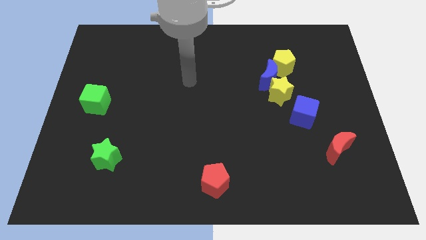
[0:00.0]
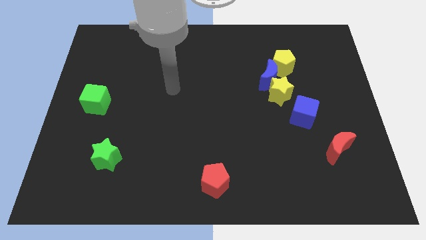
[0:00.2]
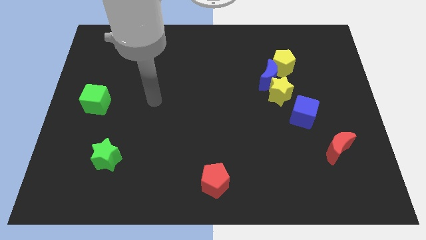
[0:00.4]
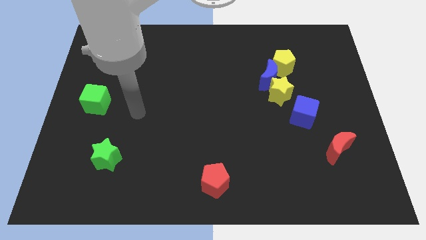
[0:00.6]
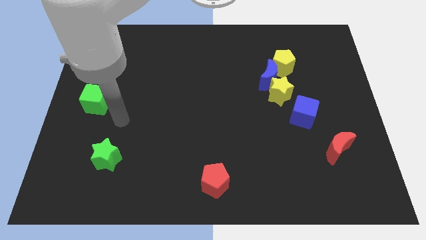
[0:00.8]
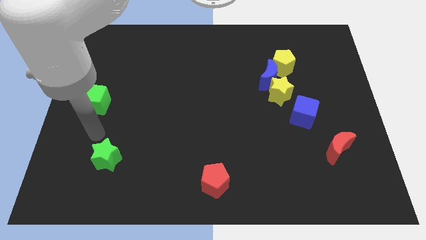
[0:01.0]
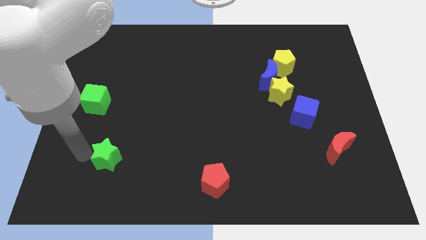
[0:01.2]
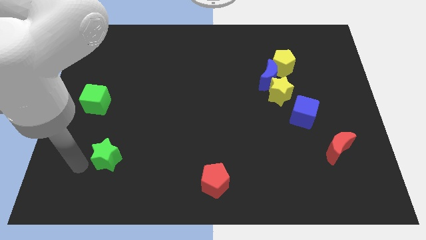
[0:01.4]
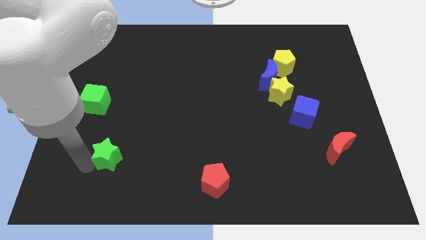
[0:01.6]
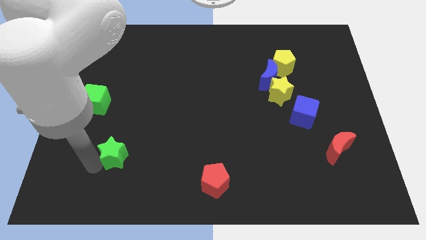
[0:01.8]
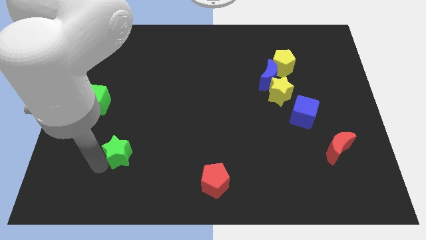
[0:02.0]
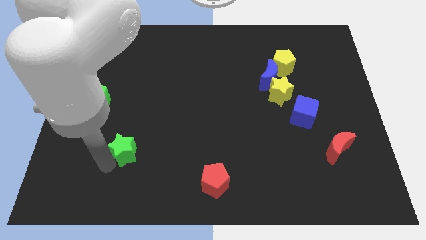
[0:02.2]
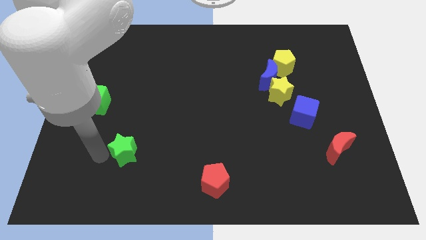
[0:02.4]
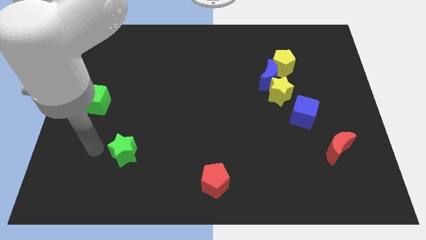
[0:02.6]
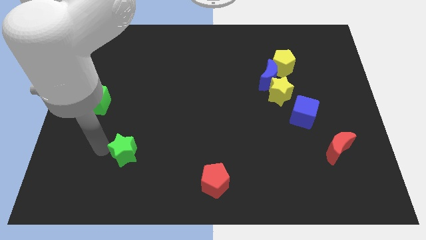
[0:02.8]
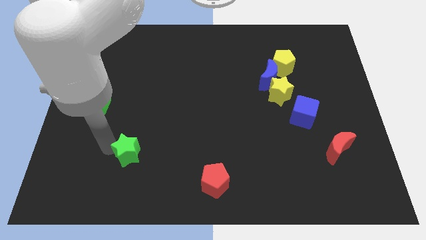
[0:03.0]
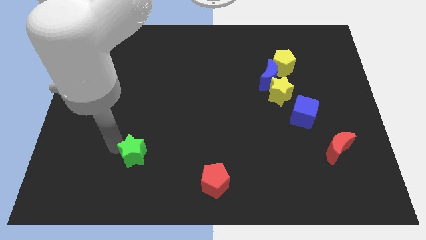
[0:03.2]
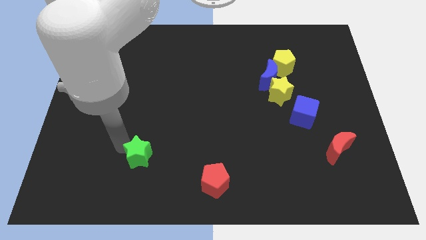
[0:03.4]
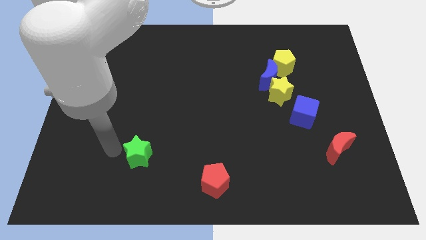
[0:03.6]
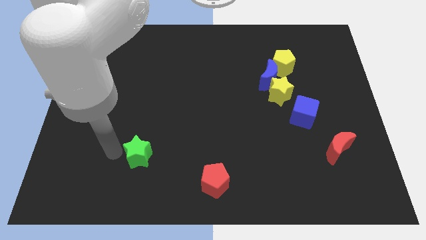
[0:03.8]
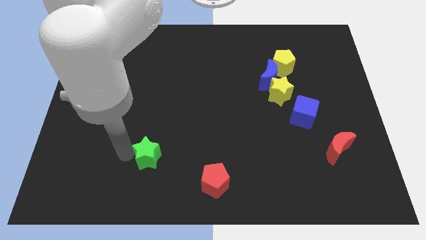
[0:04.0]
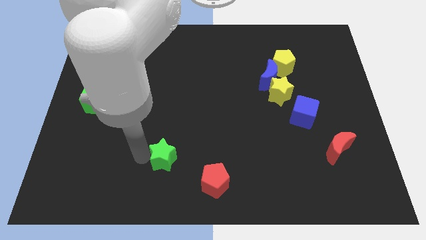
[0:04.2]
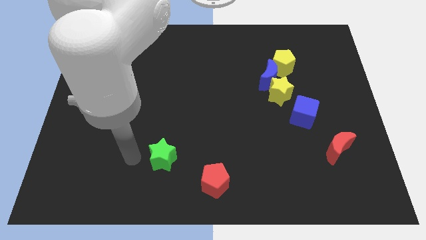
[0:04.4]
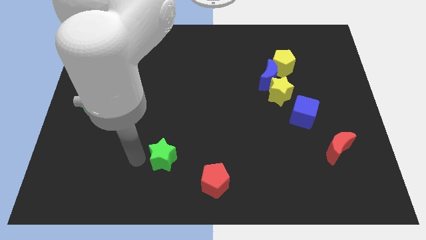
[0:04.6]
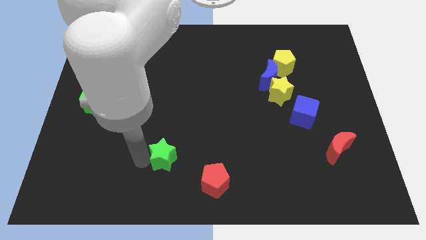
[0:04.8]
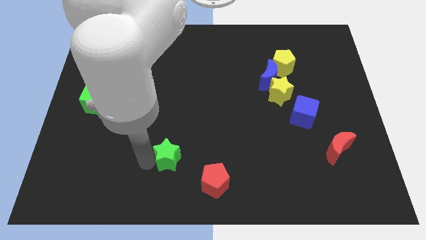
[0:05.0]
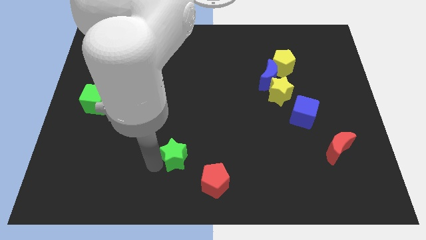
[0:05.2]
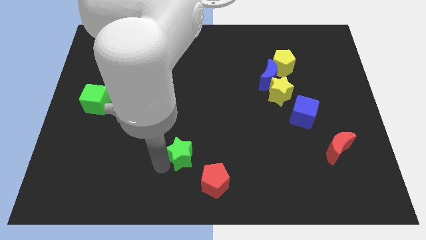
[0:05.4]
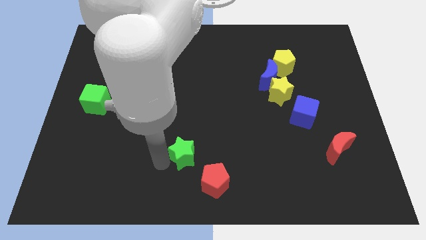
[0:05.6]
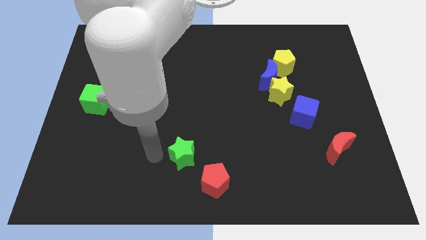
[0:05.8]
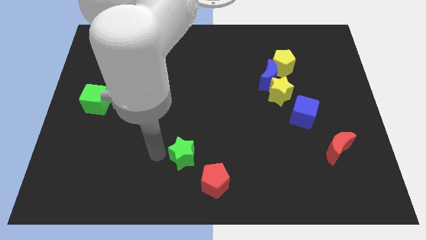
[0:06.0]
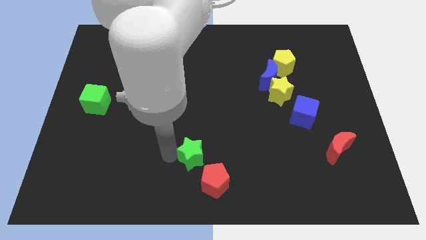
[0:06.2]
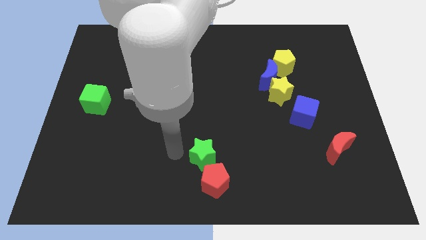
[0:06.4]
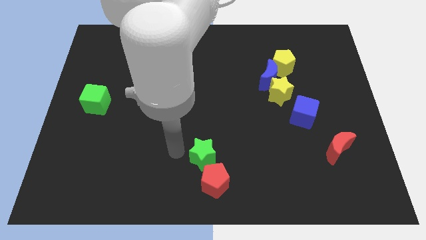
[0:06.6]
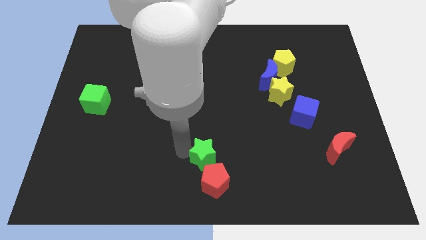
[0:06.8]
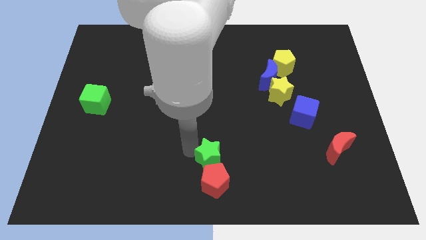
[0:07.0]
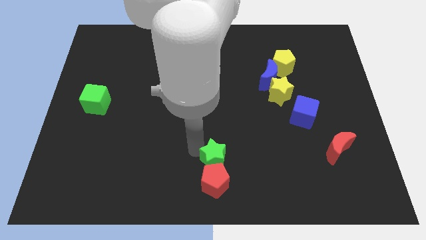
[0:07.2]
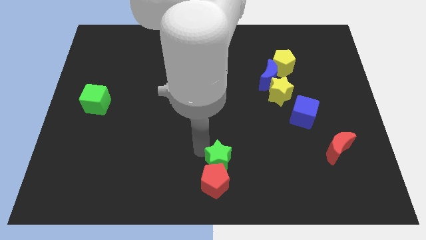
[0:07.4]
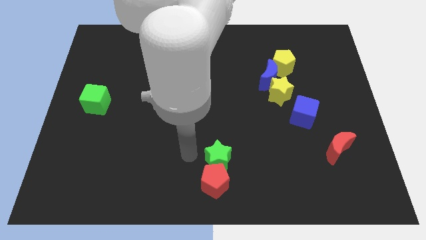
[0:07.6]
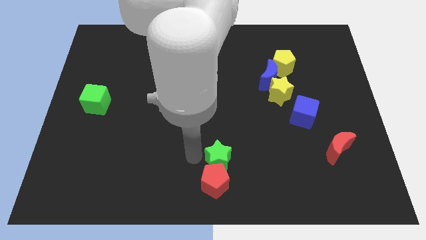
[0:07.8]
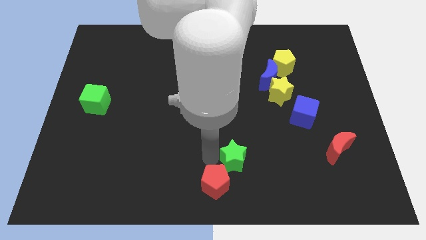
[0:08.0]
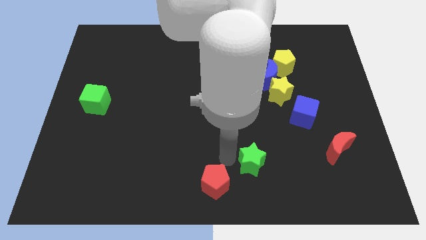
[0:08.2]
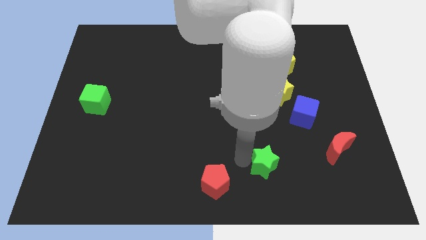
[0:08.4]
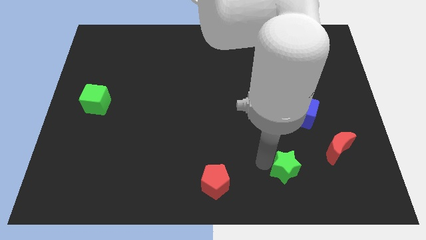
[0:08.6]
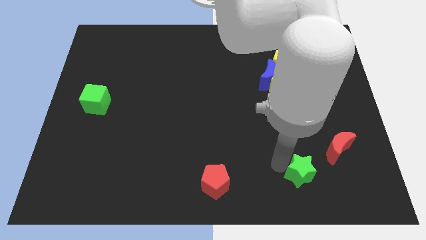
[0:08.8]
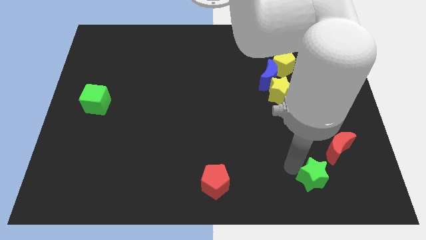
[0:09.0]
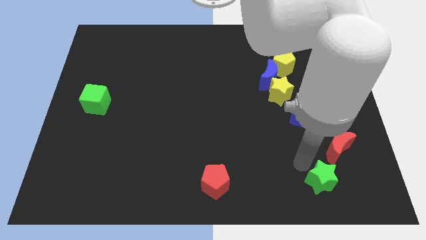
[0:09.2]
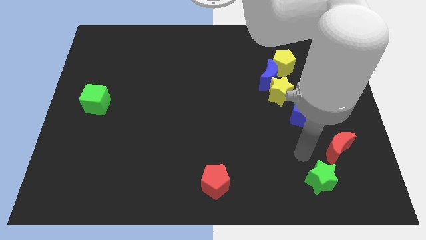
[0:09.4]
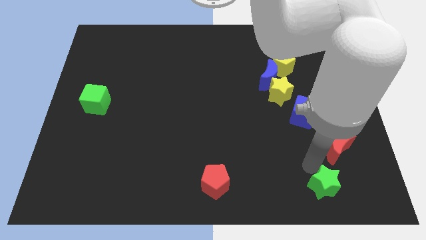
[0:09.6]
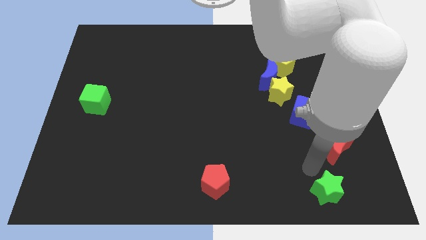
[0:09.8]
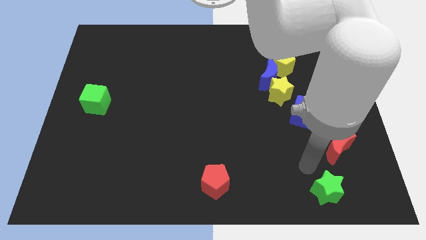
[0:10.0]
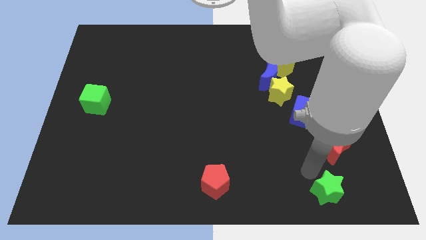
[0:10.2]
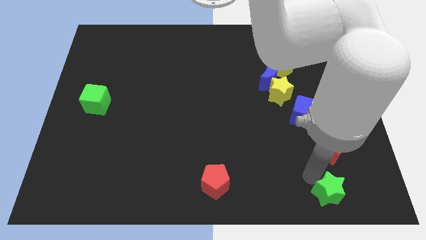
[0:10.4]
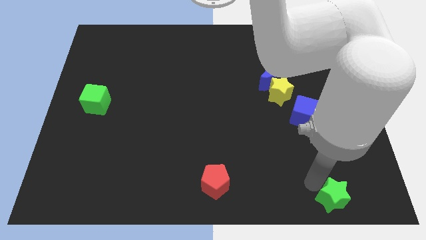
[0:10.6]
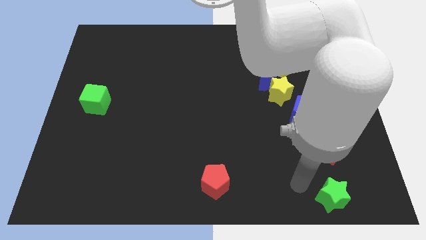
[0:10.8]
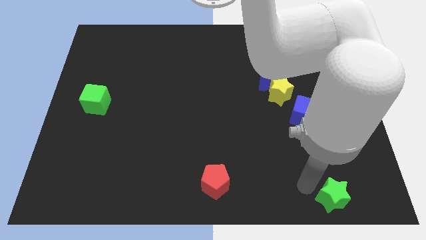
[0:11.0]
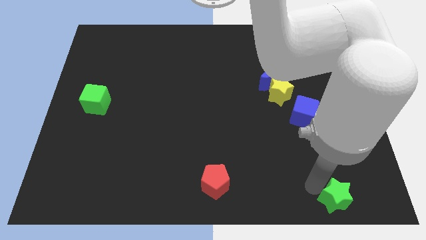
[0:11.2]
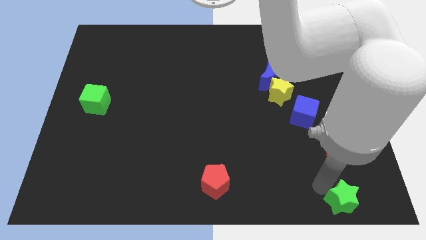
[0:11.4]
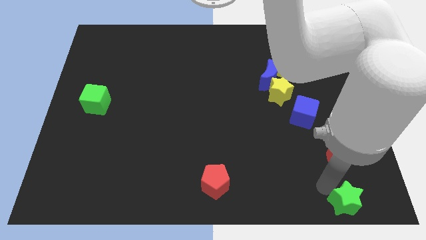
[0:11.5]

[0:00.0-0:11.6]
put the green star to the lower right corner

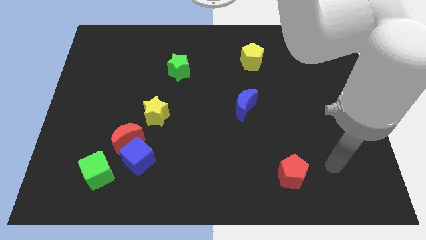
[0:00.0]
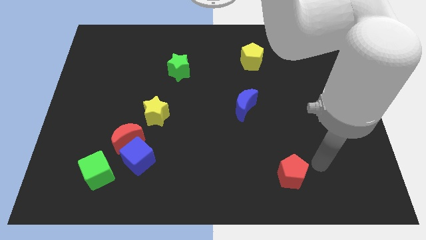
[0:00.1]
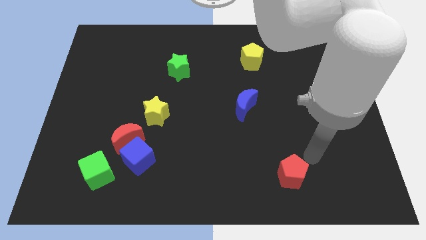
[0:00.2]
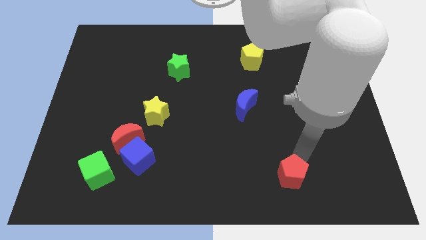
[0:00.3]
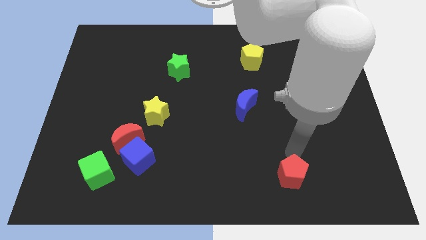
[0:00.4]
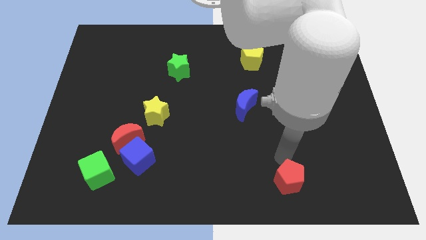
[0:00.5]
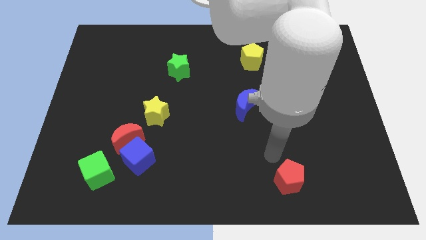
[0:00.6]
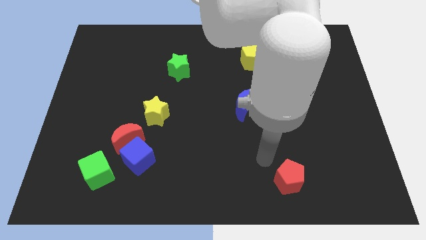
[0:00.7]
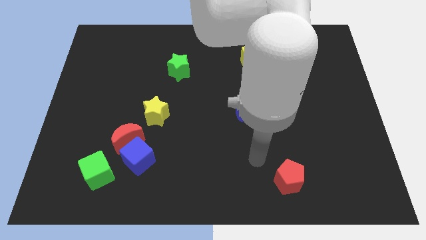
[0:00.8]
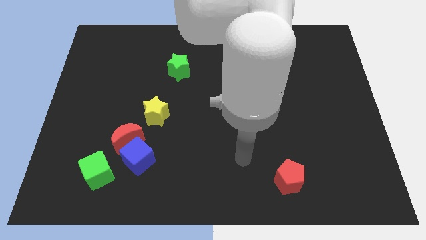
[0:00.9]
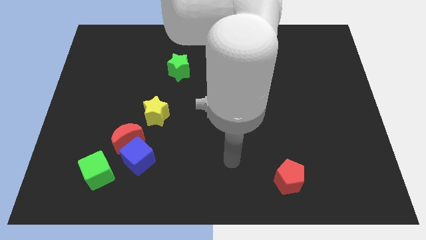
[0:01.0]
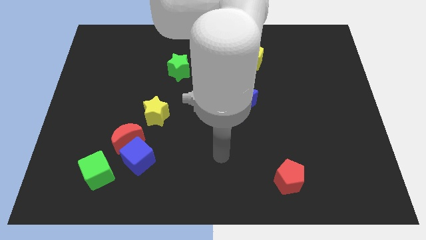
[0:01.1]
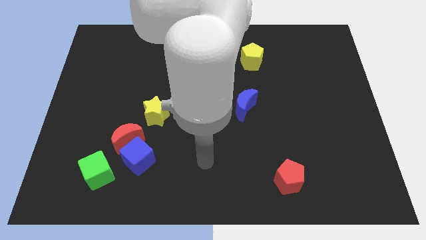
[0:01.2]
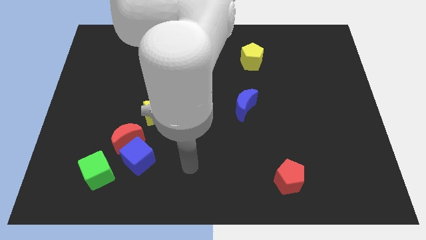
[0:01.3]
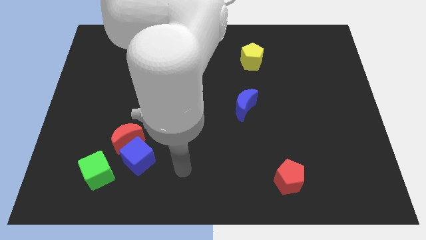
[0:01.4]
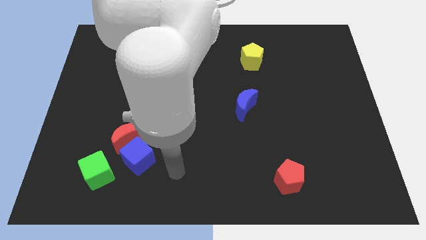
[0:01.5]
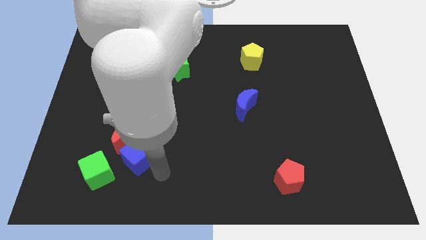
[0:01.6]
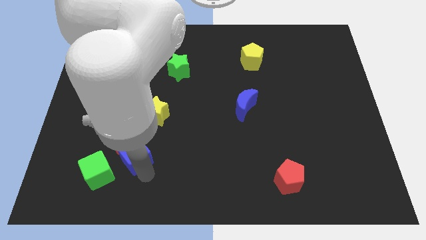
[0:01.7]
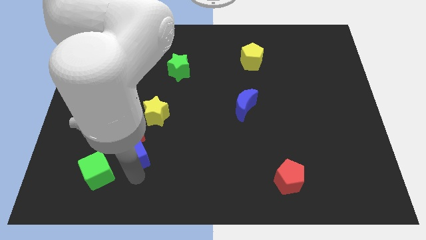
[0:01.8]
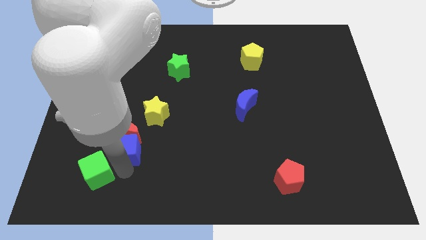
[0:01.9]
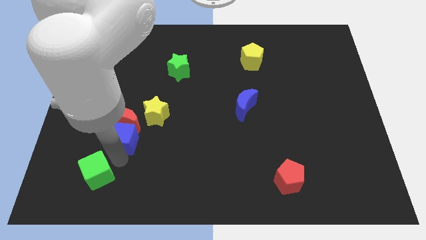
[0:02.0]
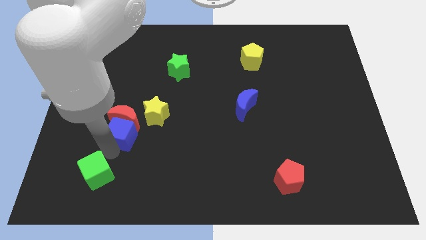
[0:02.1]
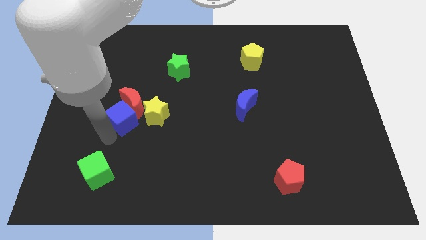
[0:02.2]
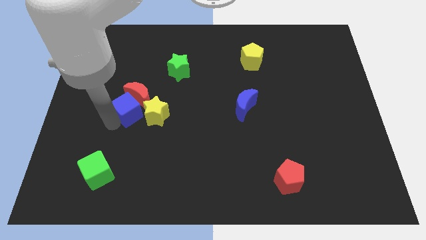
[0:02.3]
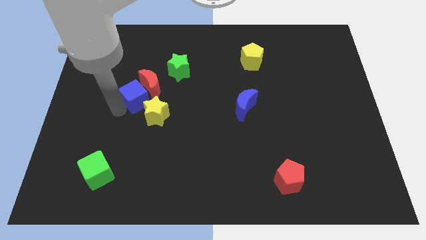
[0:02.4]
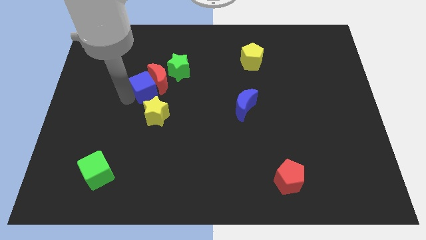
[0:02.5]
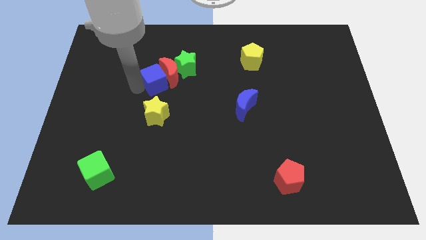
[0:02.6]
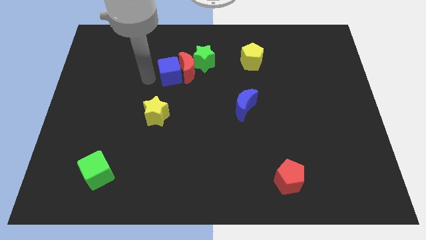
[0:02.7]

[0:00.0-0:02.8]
move the red moon to the middle
